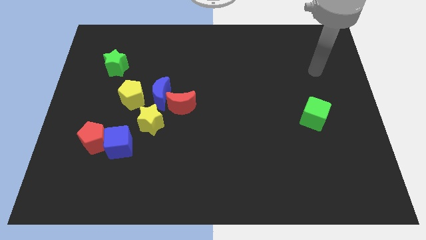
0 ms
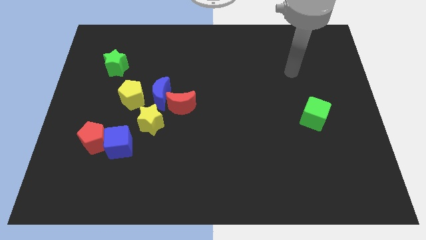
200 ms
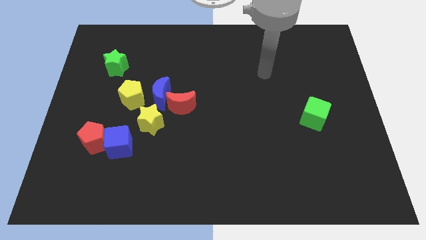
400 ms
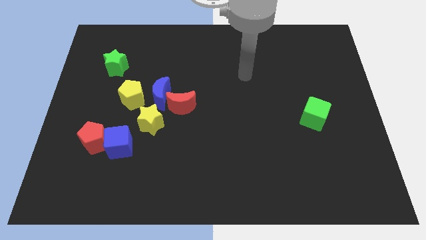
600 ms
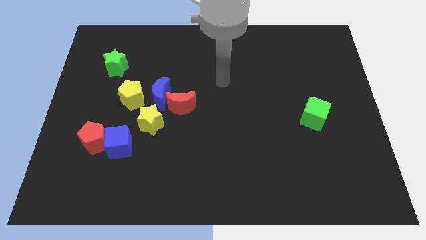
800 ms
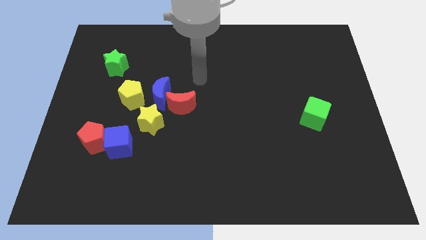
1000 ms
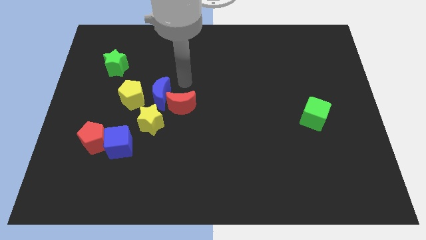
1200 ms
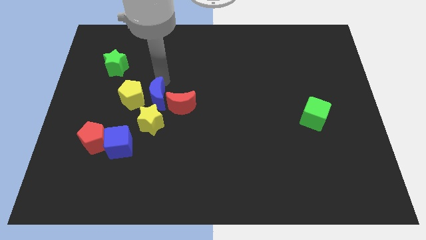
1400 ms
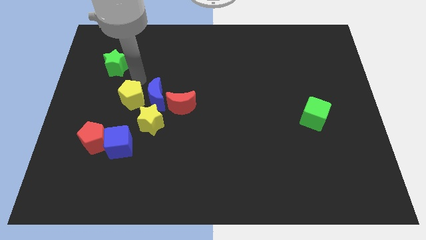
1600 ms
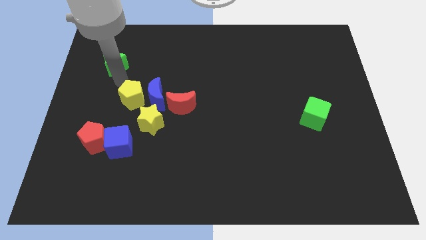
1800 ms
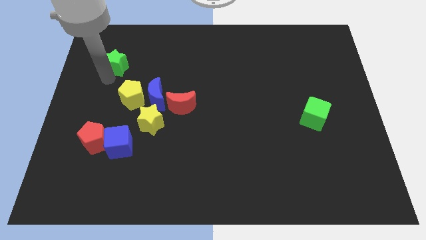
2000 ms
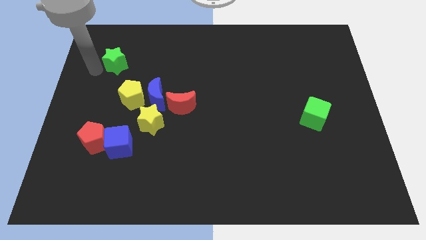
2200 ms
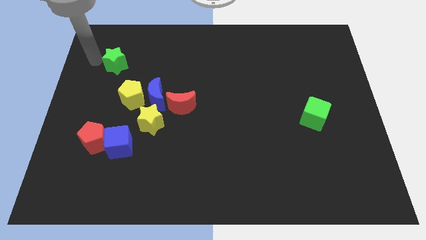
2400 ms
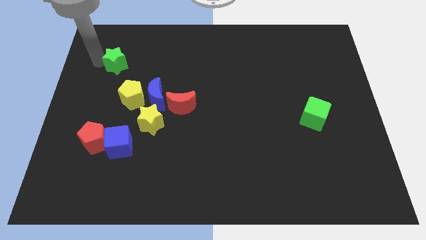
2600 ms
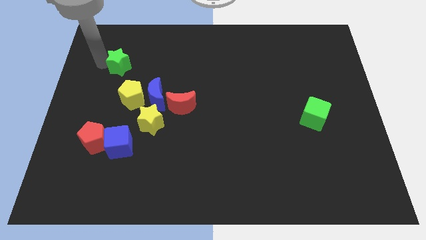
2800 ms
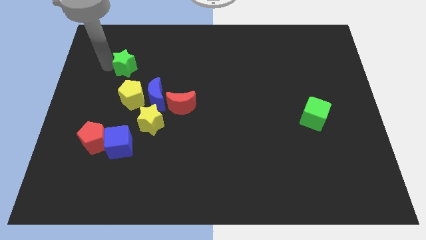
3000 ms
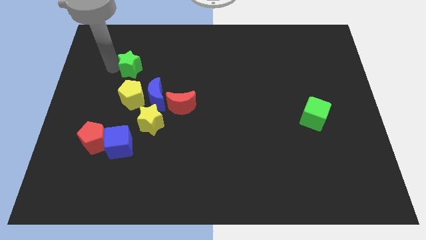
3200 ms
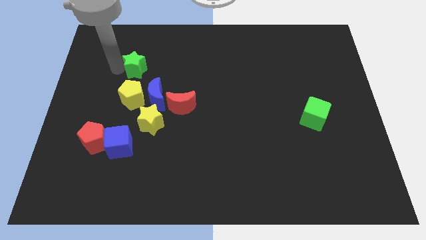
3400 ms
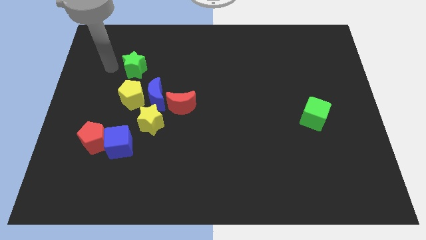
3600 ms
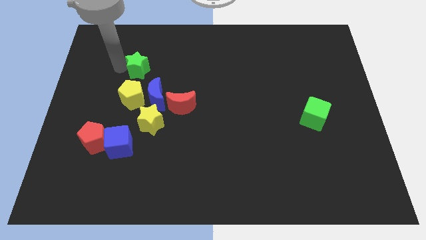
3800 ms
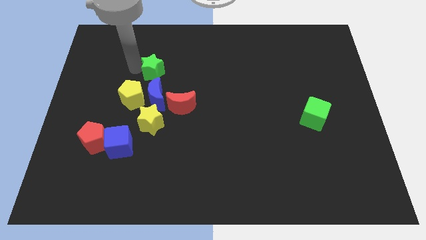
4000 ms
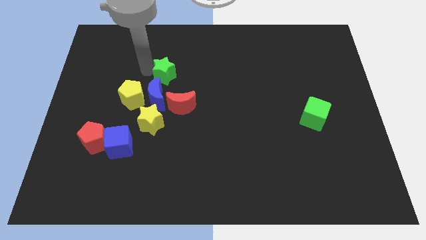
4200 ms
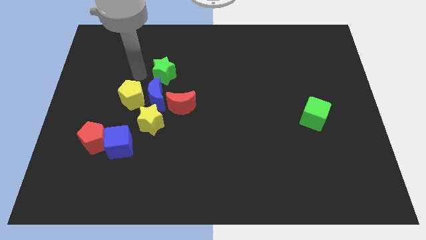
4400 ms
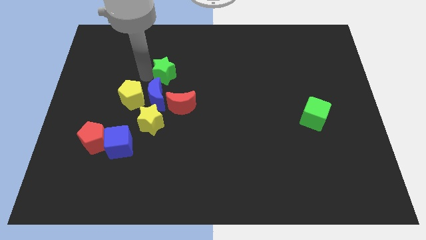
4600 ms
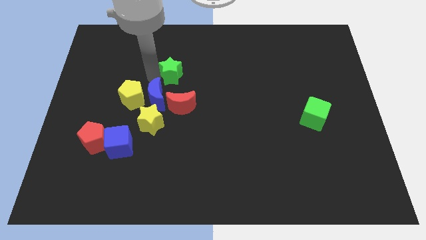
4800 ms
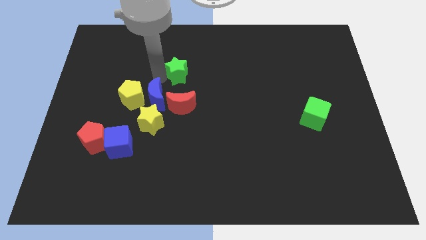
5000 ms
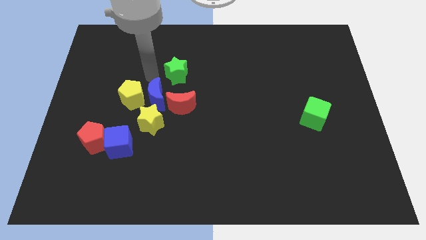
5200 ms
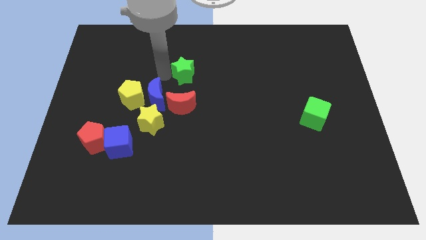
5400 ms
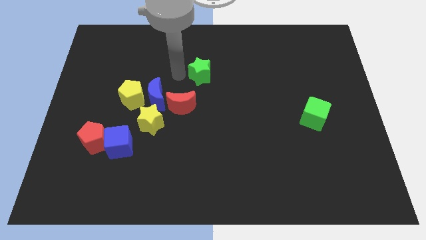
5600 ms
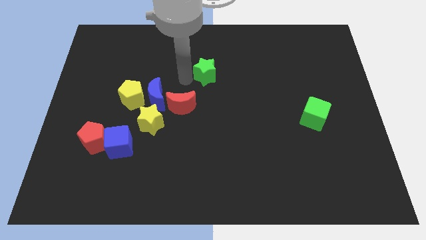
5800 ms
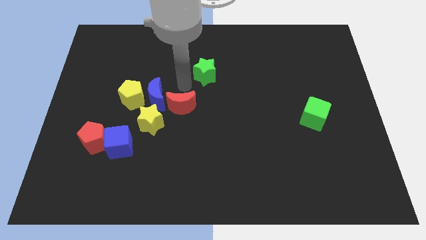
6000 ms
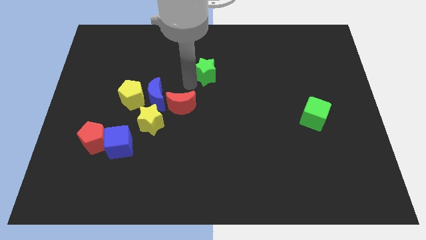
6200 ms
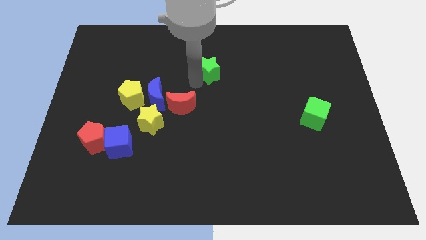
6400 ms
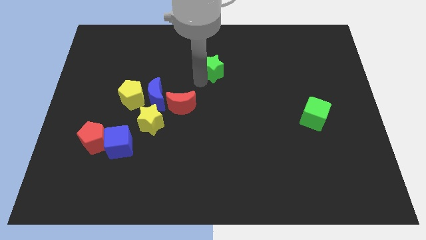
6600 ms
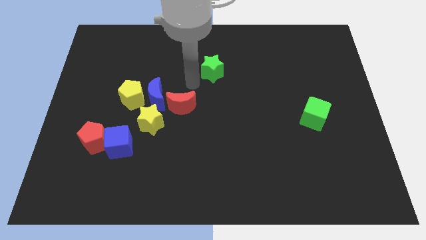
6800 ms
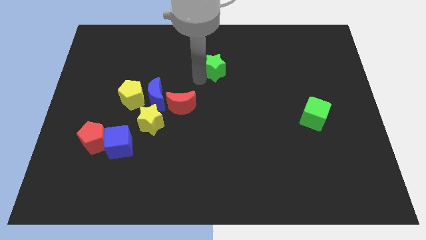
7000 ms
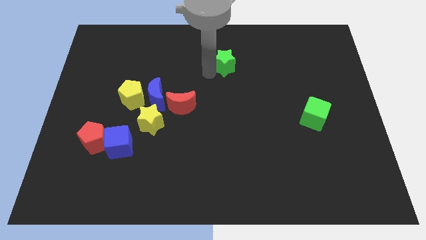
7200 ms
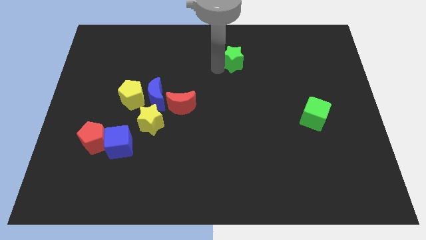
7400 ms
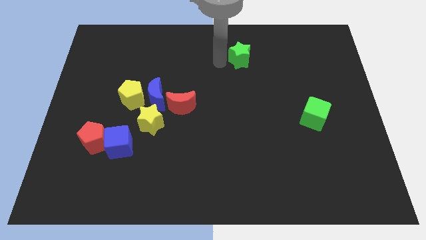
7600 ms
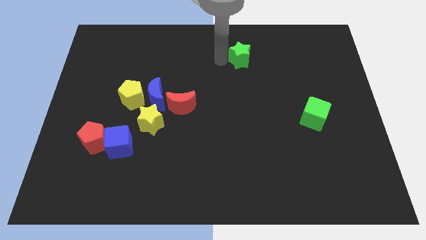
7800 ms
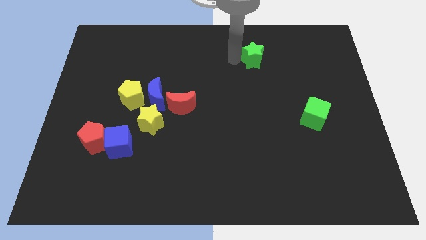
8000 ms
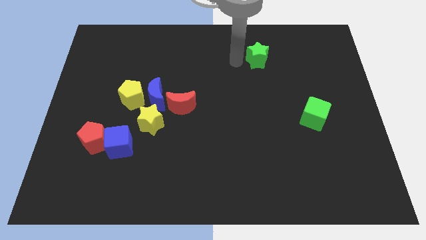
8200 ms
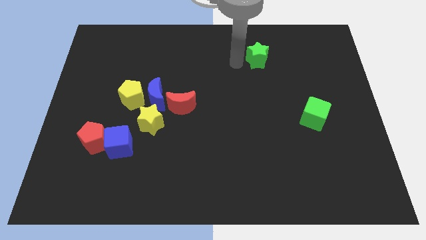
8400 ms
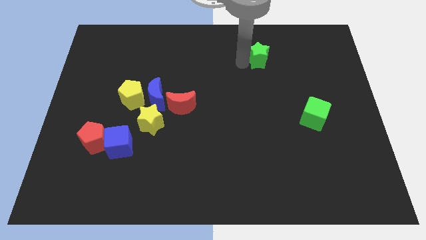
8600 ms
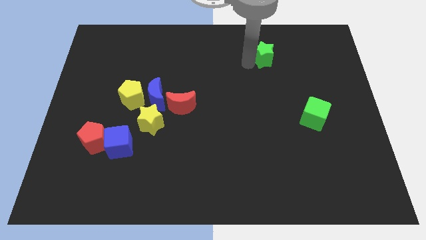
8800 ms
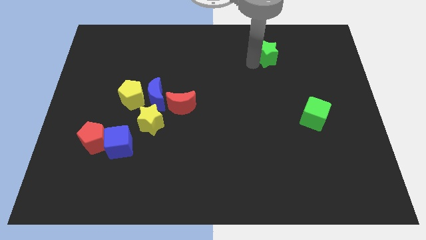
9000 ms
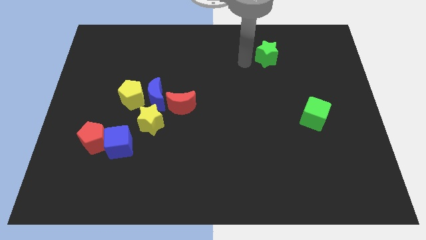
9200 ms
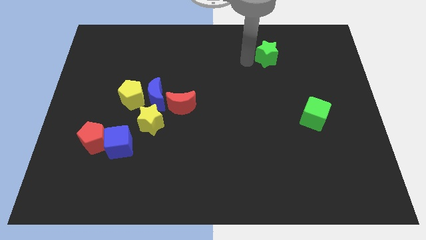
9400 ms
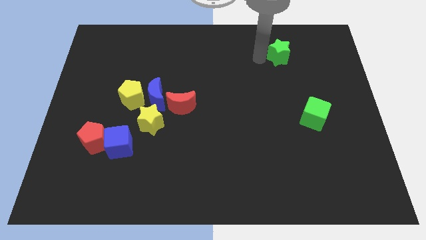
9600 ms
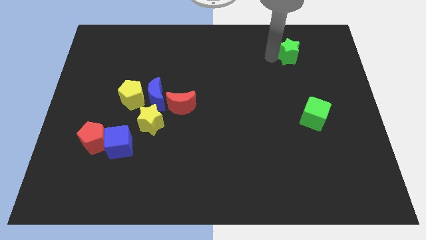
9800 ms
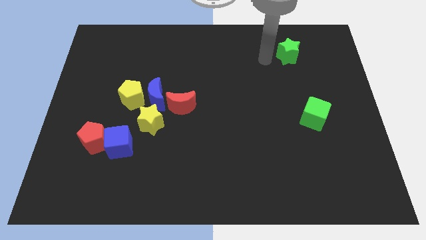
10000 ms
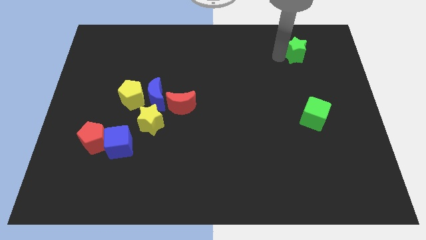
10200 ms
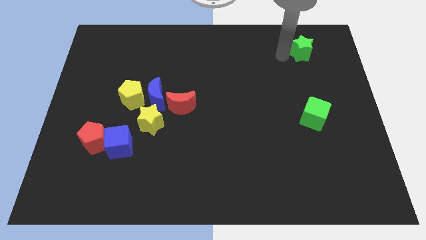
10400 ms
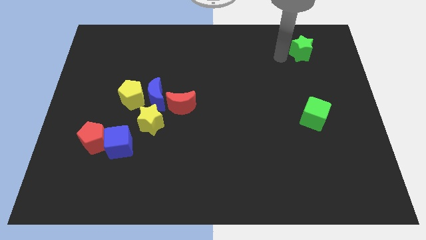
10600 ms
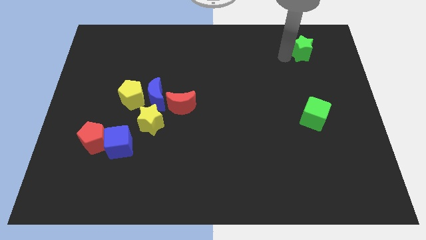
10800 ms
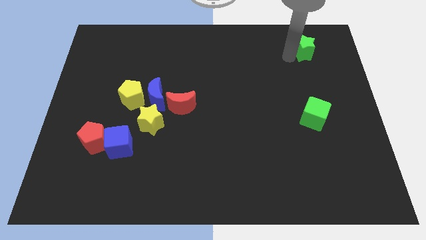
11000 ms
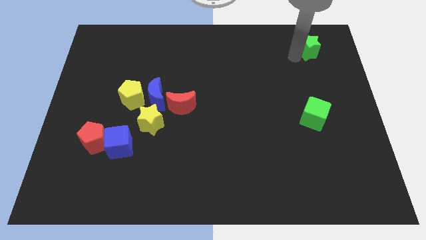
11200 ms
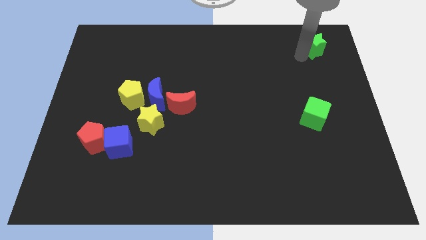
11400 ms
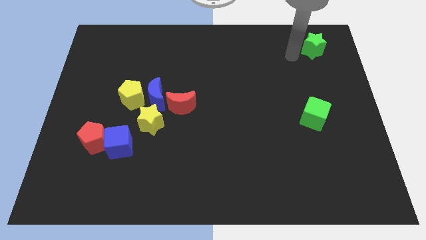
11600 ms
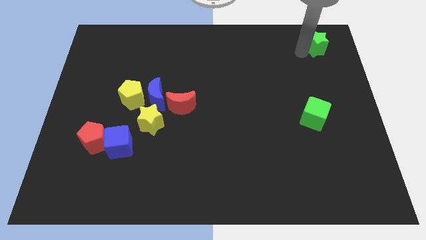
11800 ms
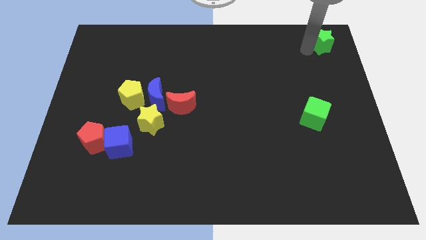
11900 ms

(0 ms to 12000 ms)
slide the green star to the upper right corner
